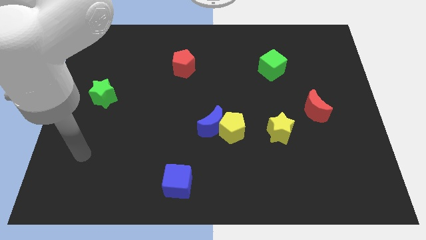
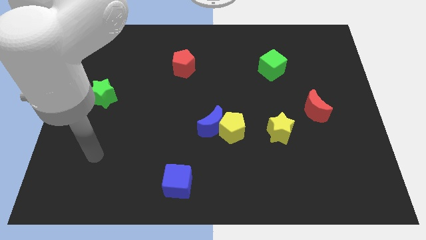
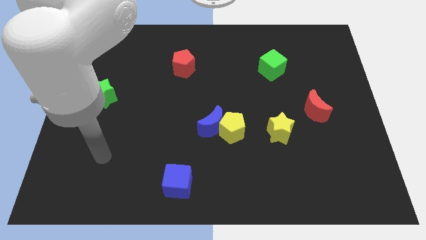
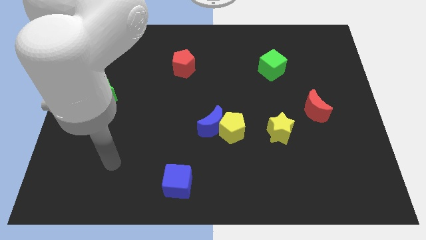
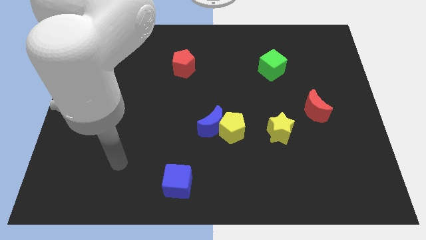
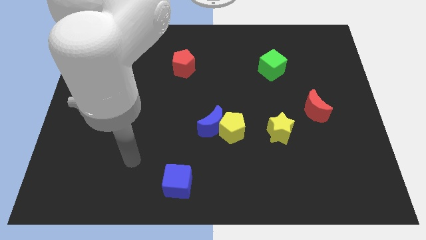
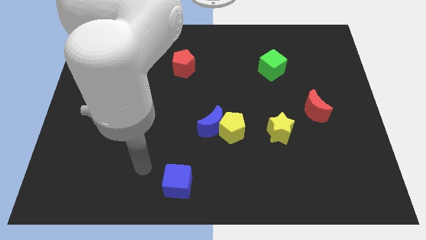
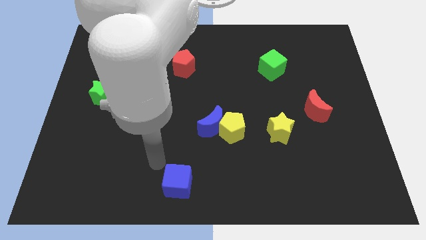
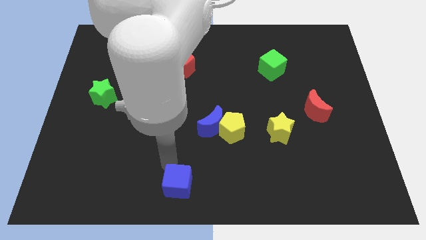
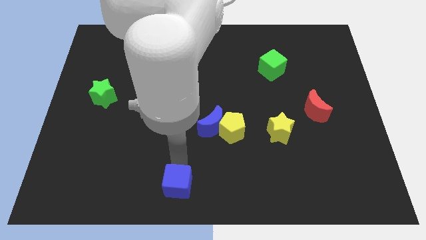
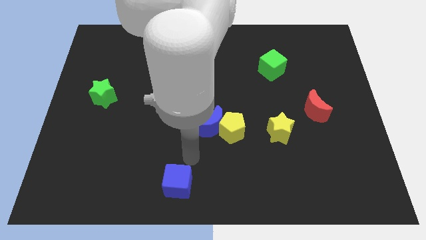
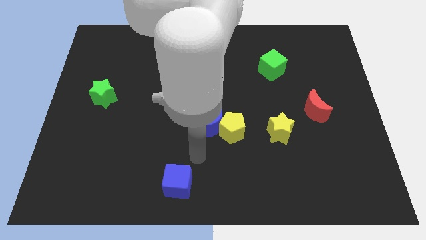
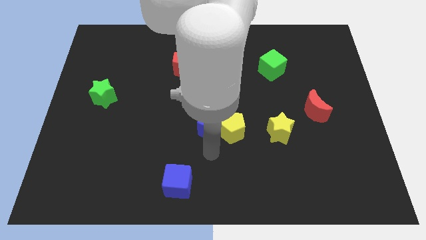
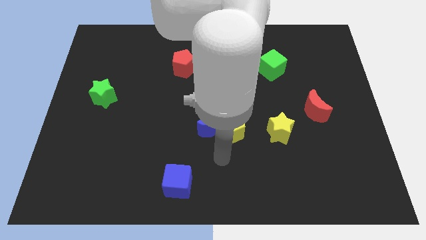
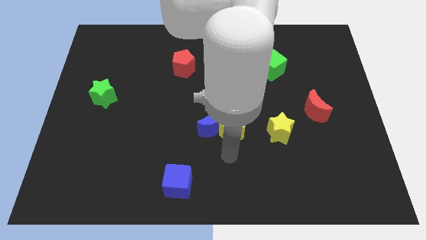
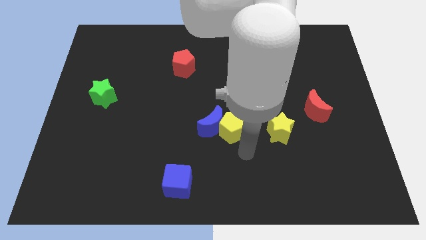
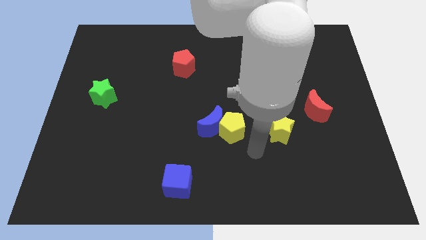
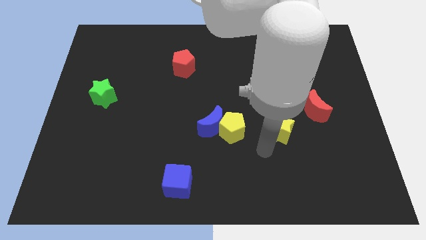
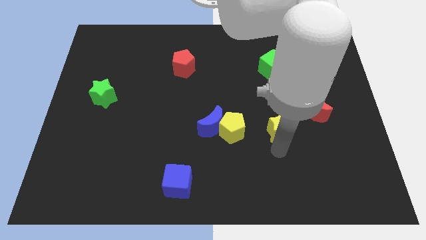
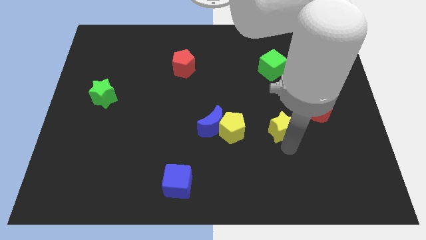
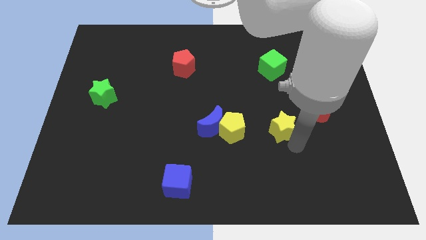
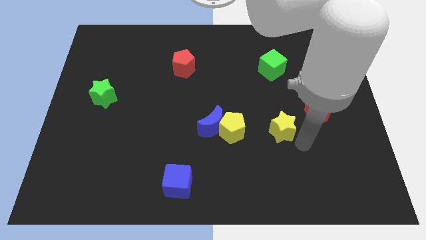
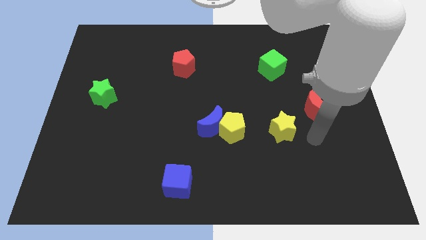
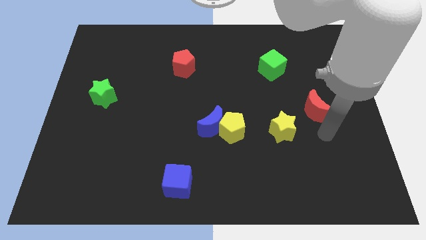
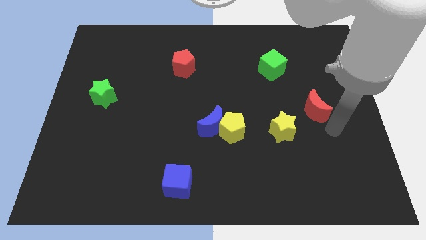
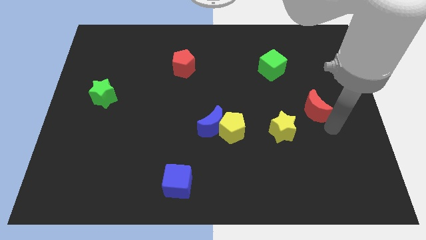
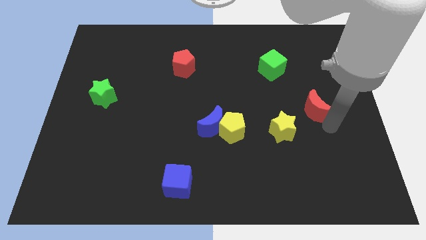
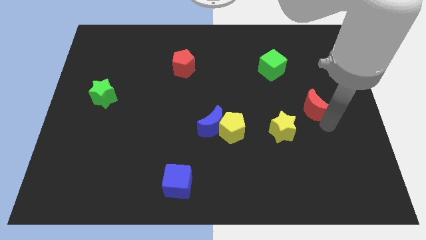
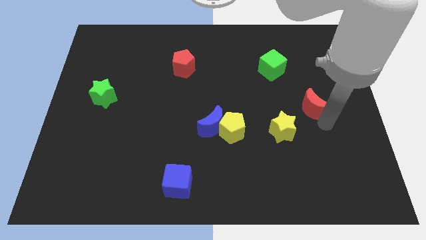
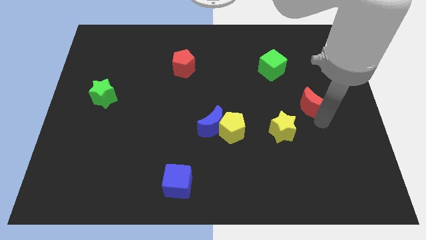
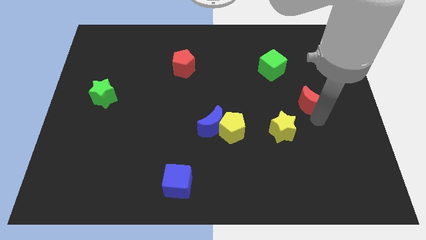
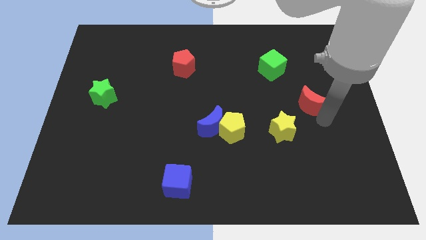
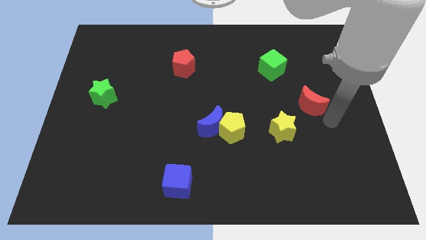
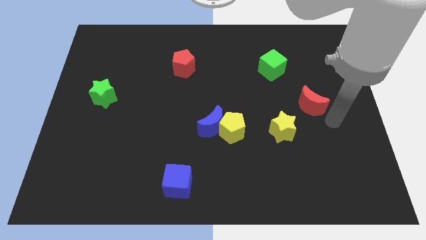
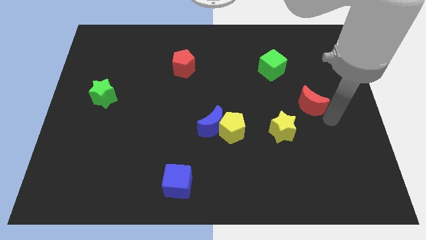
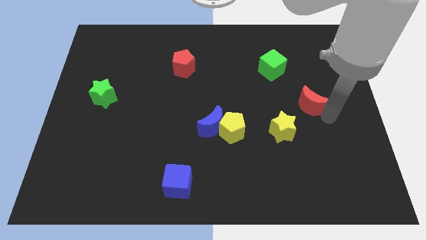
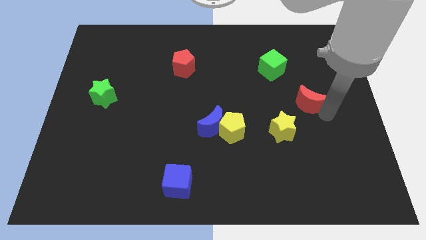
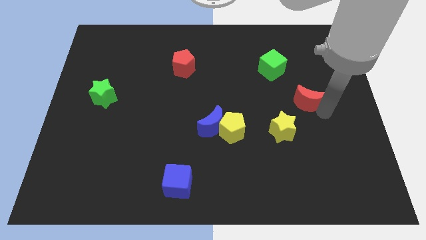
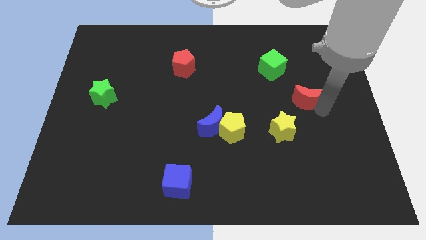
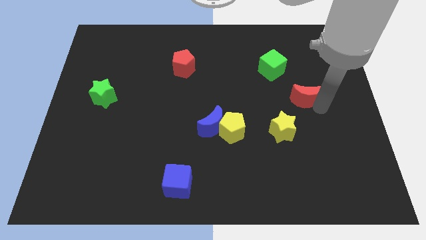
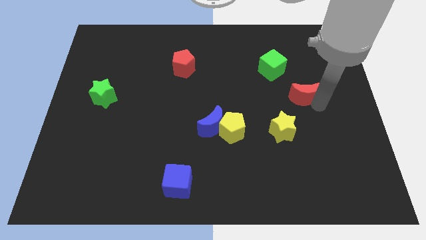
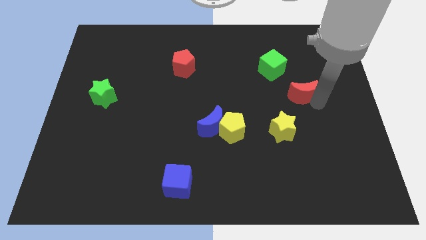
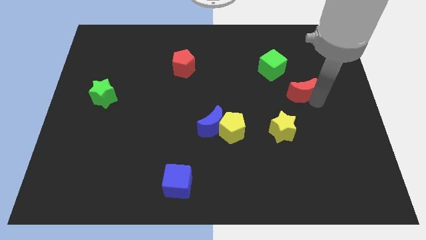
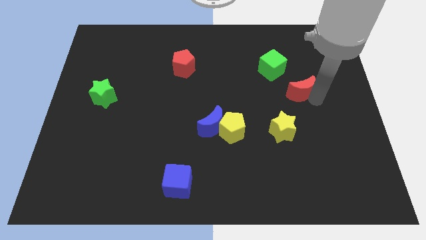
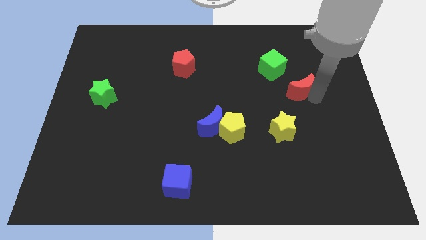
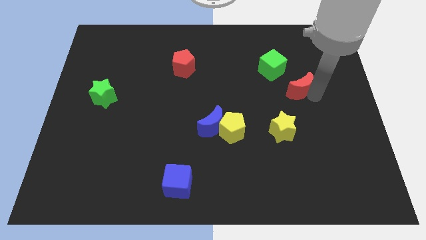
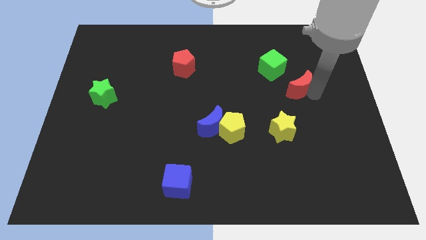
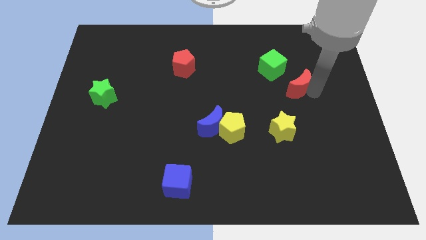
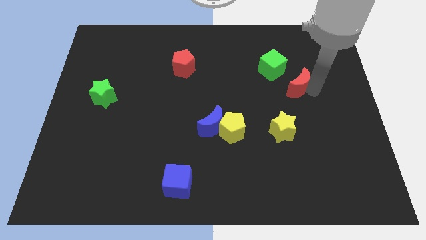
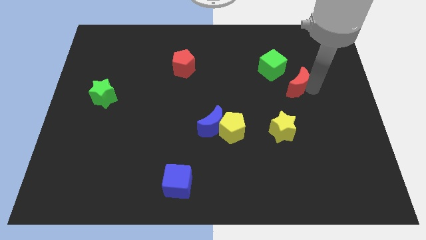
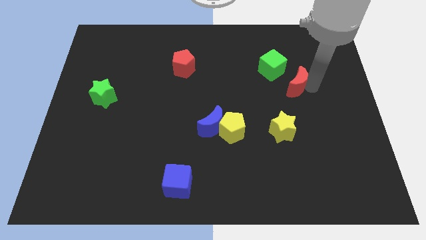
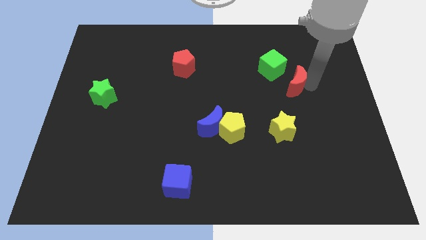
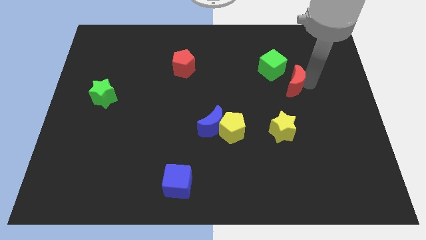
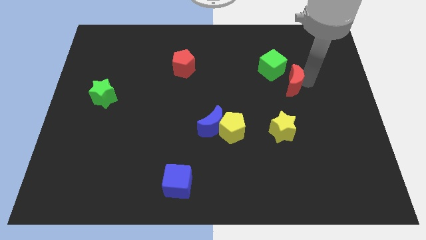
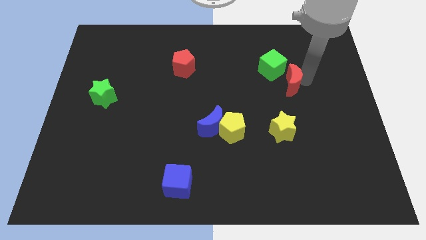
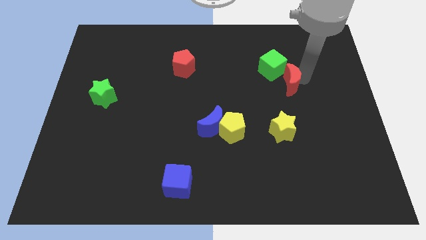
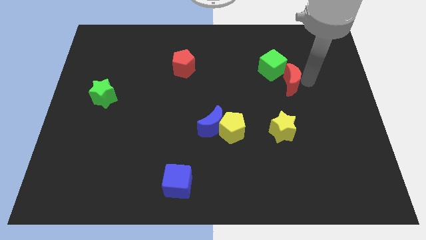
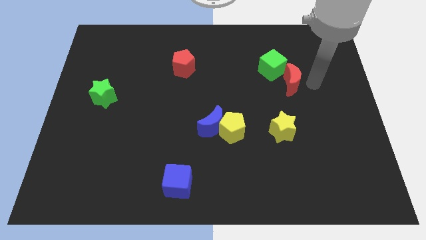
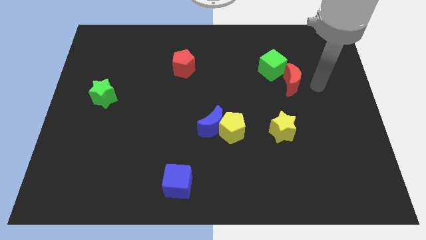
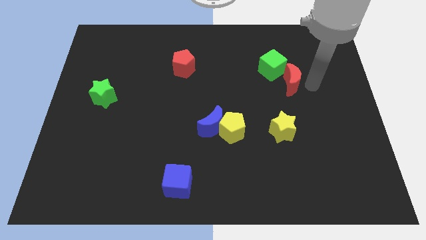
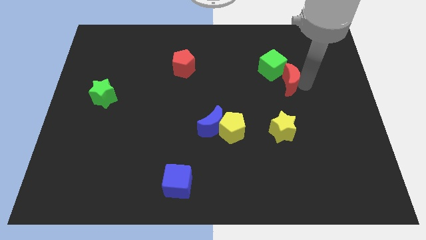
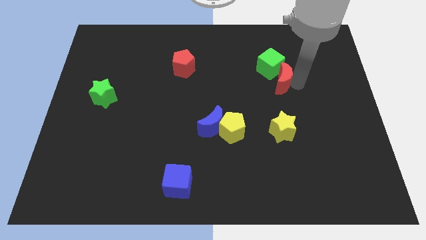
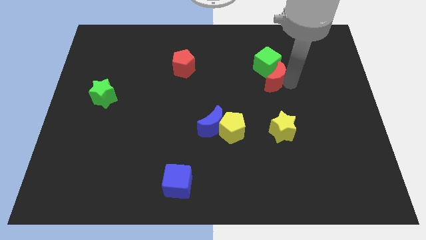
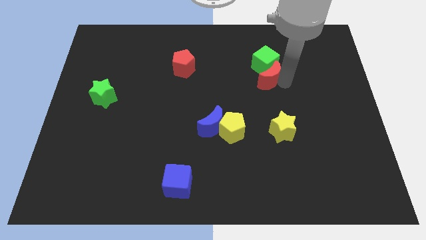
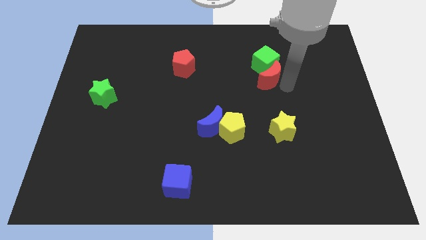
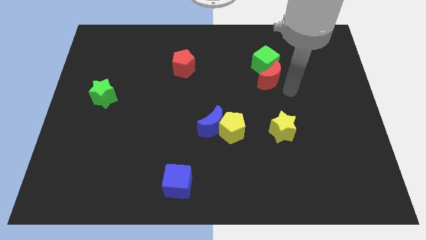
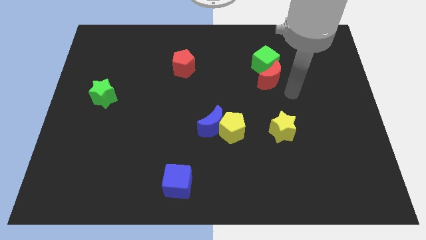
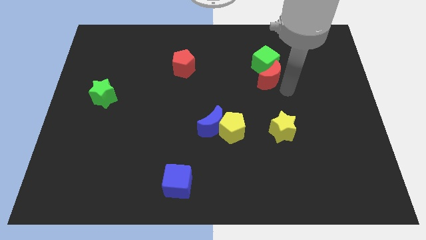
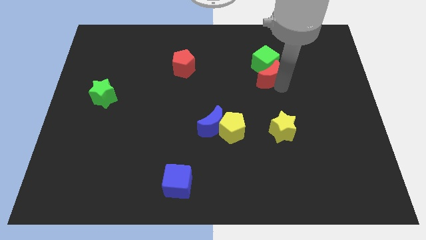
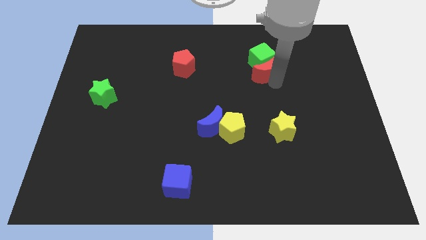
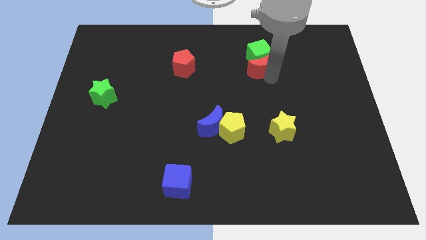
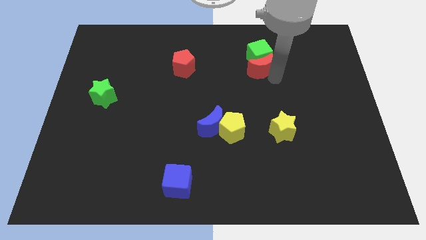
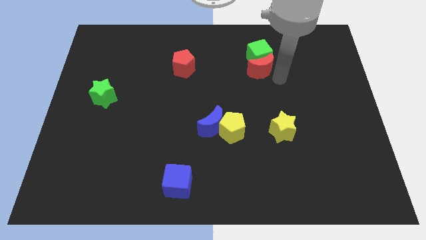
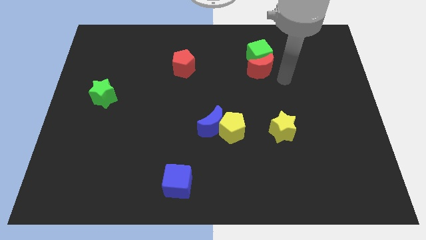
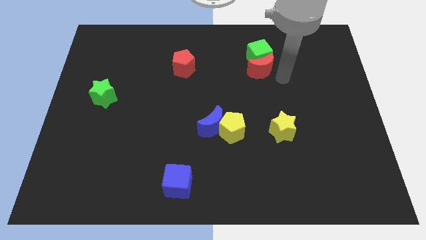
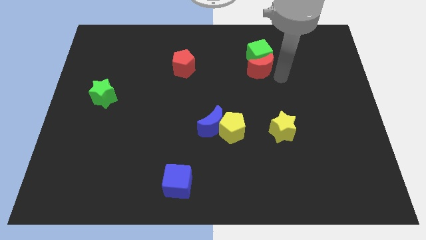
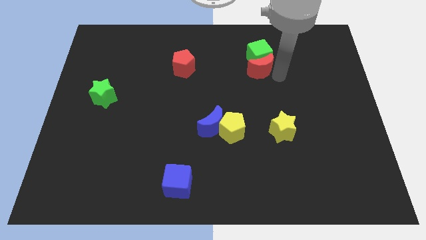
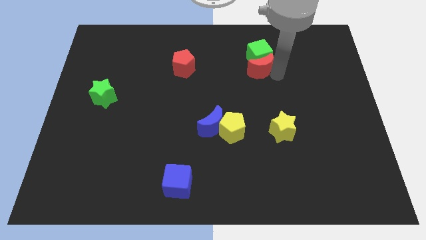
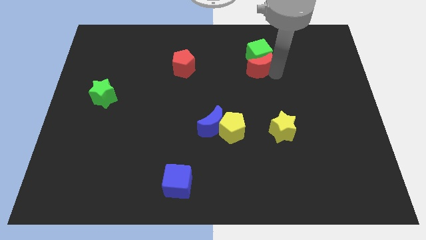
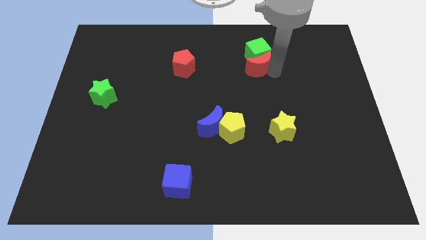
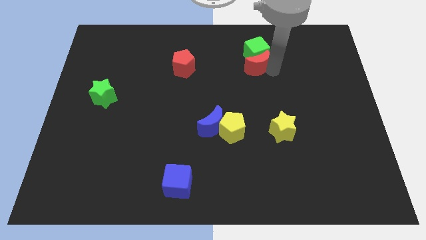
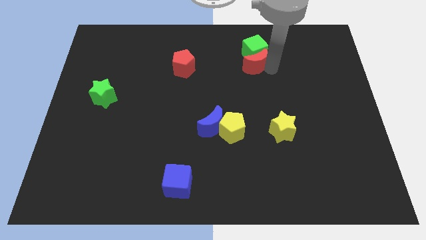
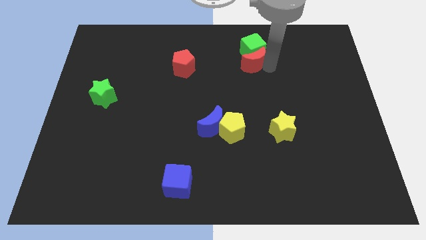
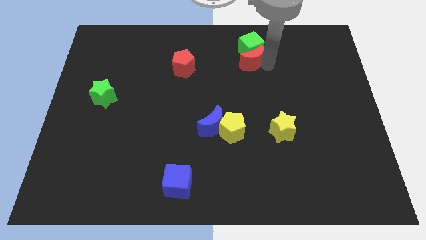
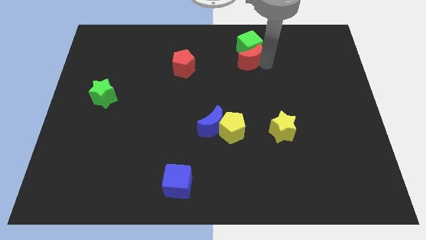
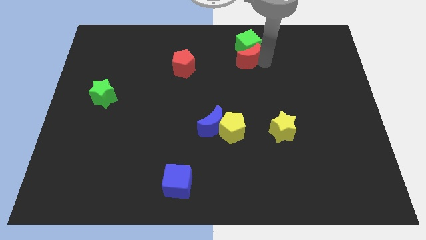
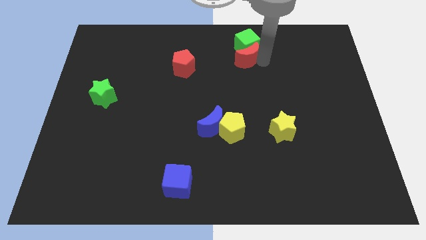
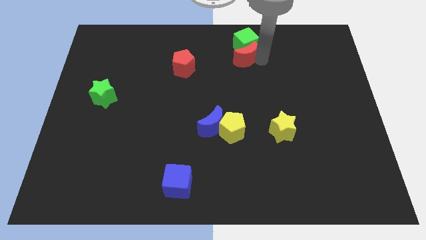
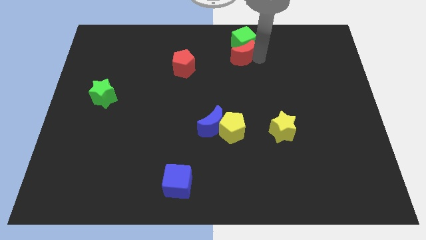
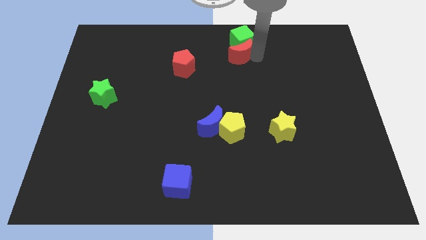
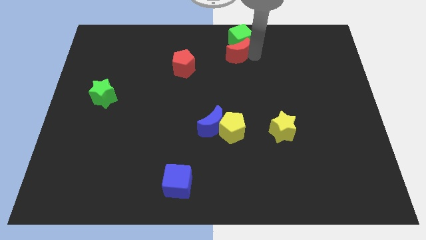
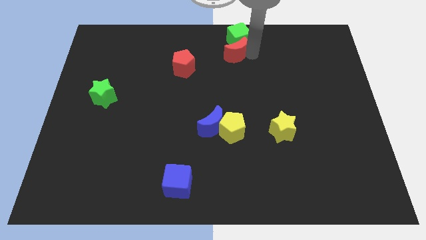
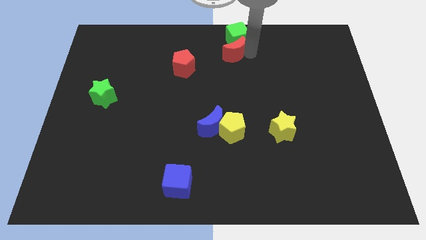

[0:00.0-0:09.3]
push the red moon to the top side
